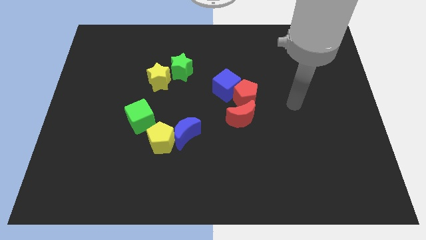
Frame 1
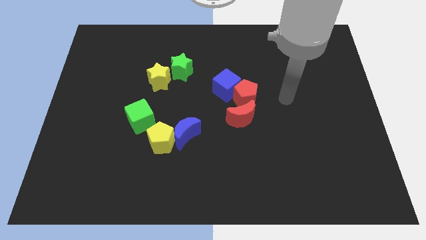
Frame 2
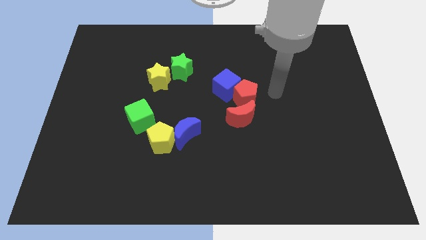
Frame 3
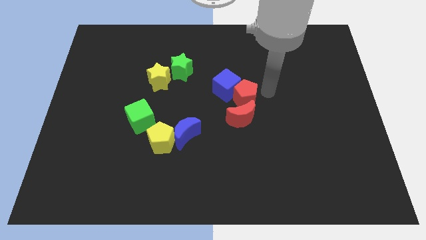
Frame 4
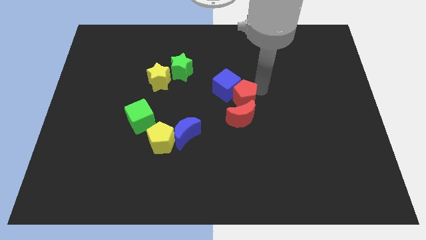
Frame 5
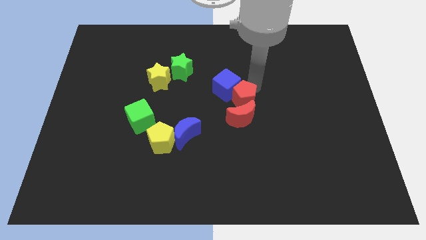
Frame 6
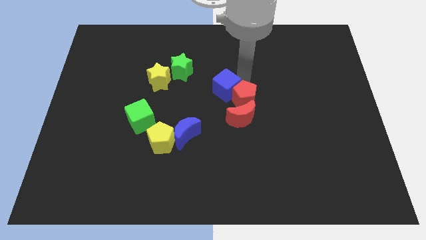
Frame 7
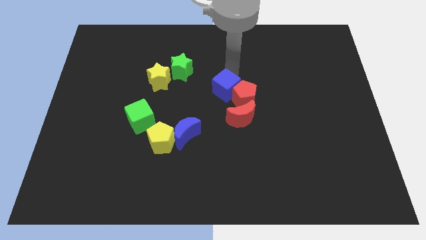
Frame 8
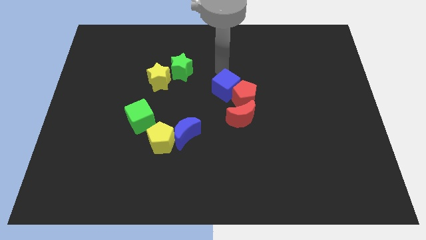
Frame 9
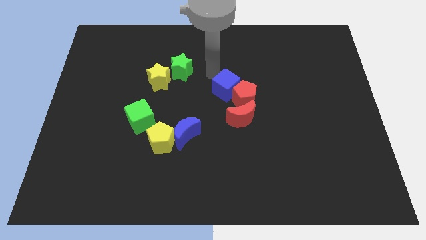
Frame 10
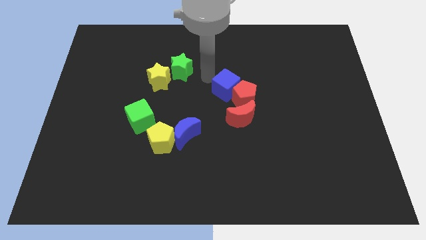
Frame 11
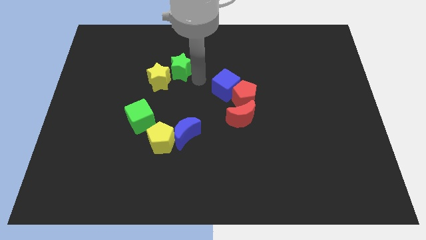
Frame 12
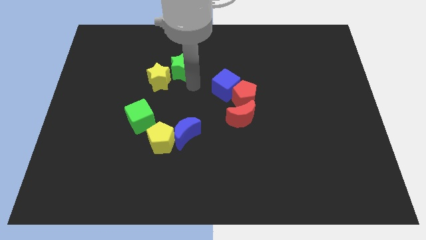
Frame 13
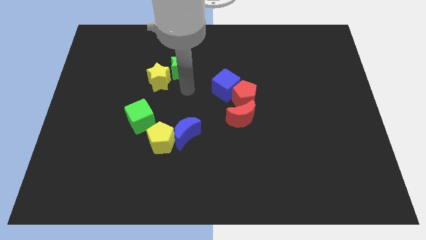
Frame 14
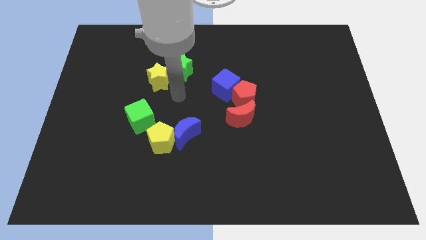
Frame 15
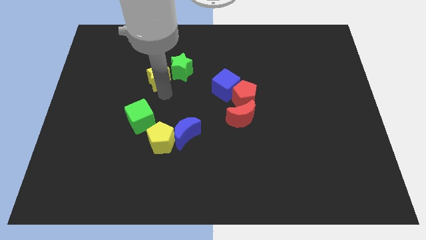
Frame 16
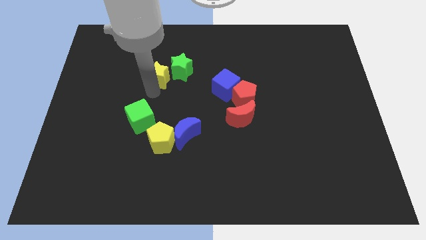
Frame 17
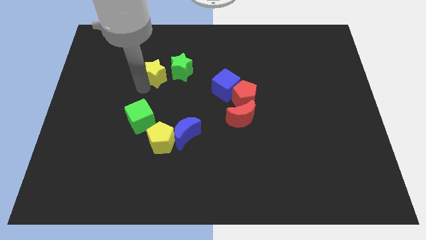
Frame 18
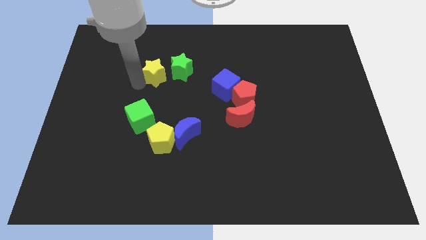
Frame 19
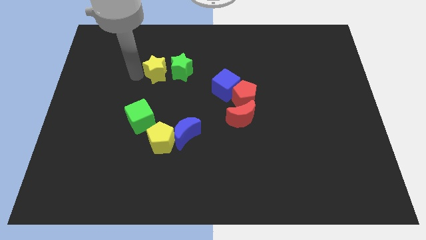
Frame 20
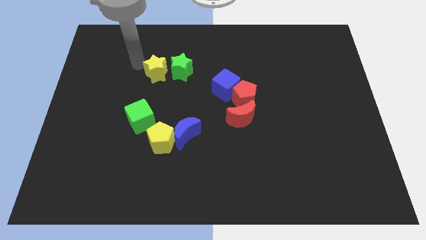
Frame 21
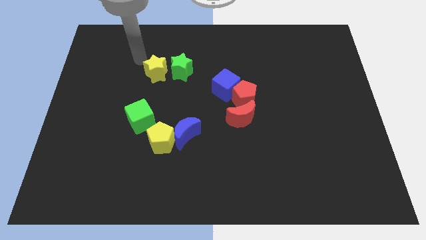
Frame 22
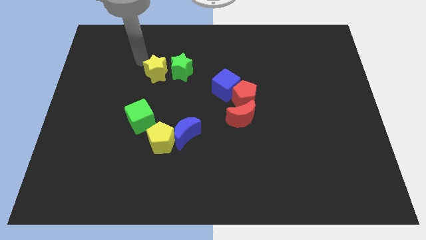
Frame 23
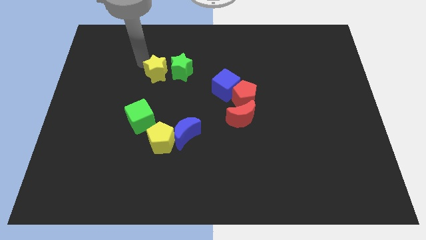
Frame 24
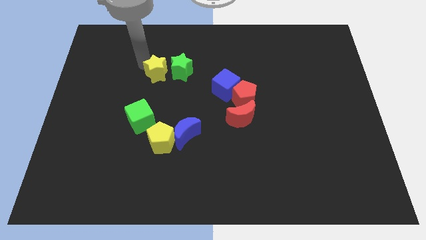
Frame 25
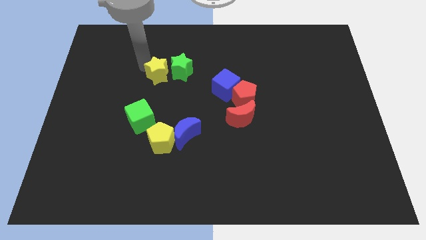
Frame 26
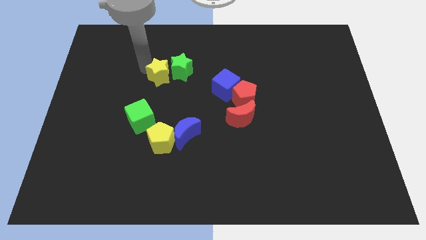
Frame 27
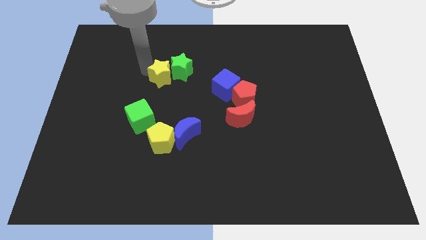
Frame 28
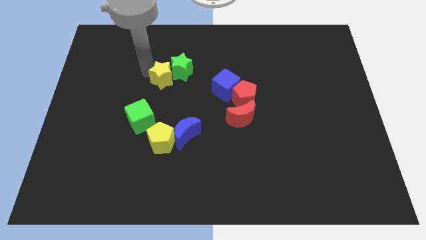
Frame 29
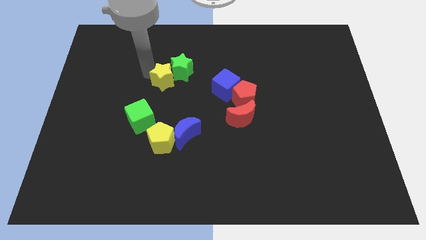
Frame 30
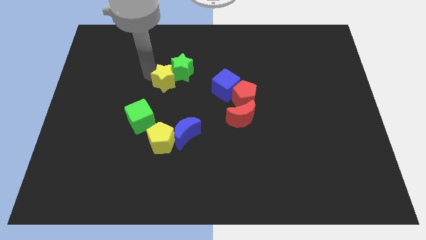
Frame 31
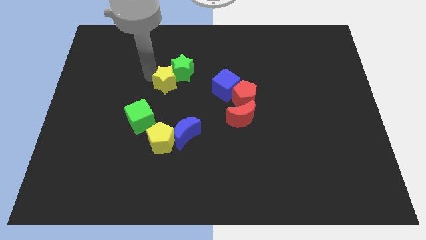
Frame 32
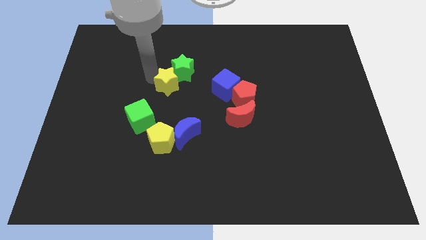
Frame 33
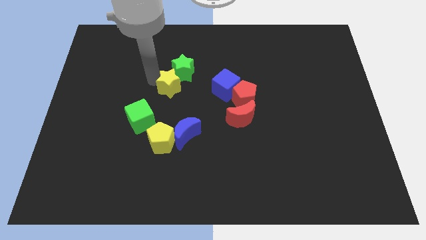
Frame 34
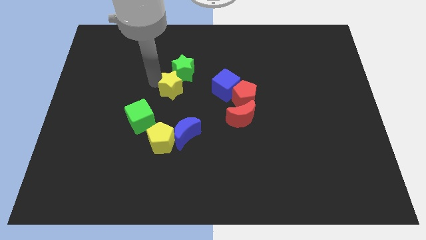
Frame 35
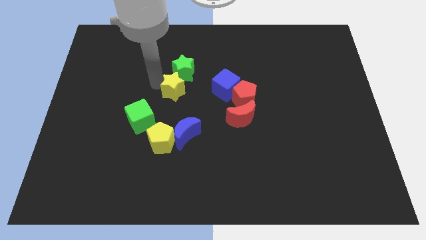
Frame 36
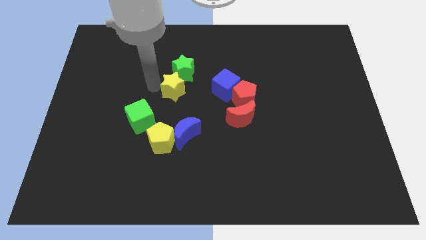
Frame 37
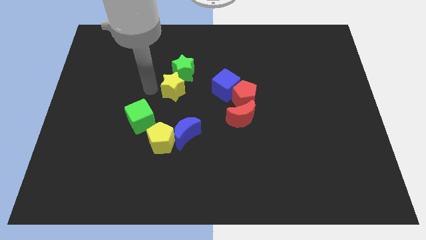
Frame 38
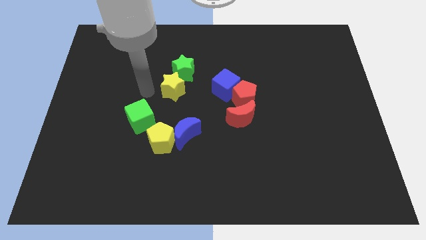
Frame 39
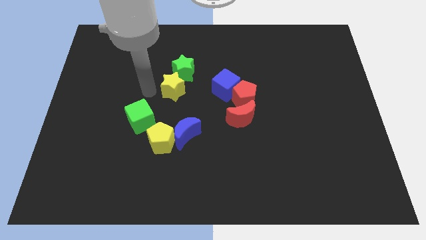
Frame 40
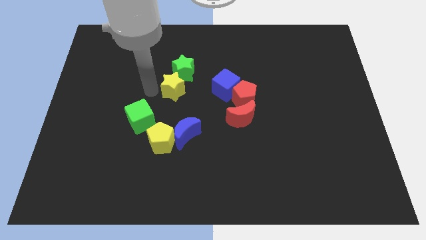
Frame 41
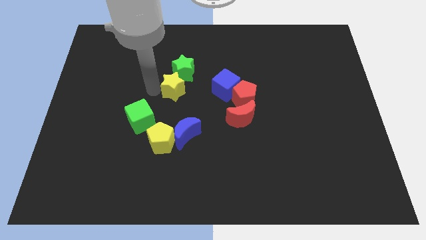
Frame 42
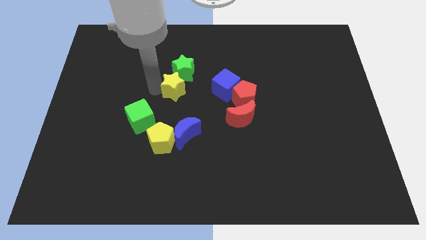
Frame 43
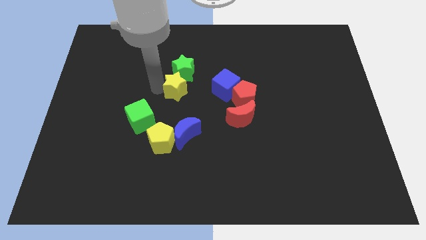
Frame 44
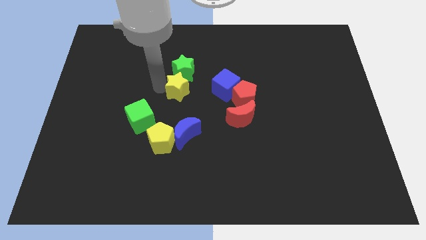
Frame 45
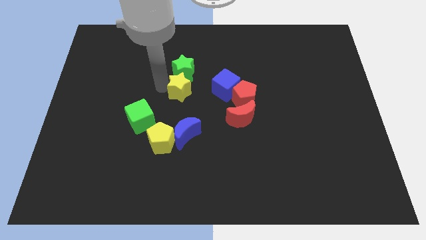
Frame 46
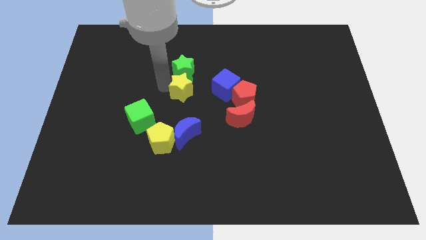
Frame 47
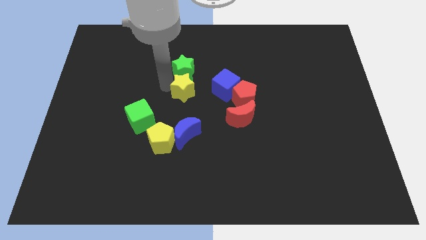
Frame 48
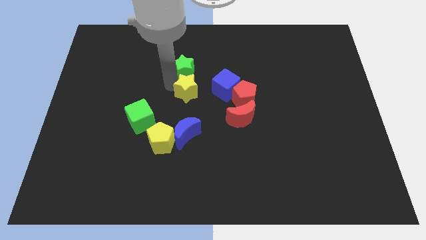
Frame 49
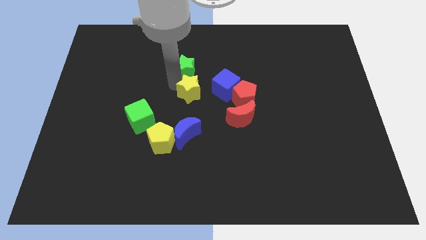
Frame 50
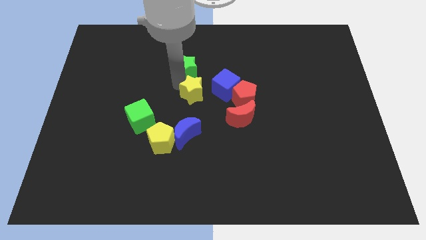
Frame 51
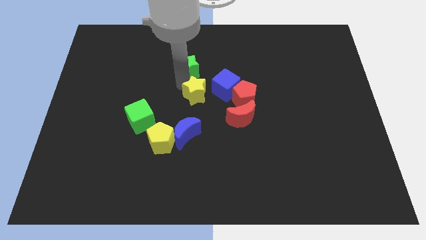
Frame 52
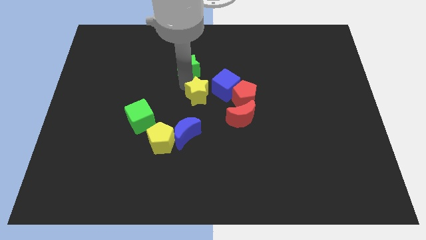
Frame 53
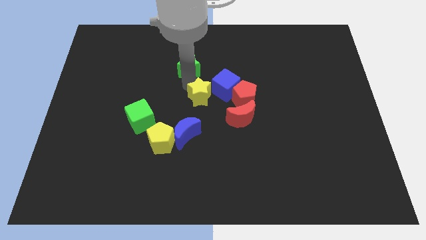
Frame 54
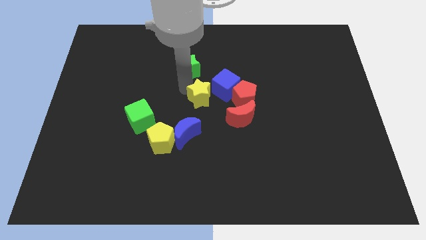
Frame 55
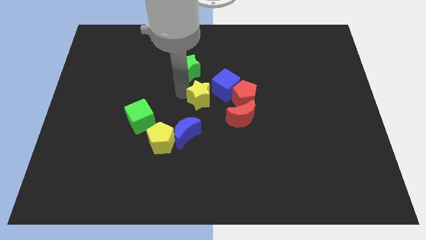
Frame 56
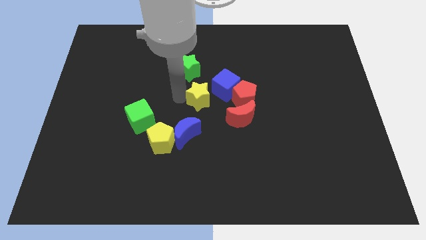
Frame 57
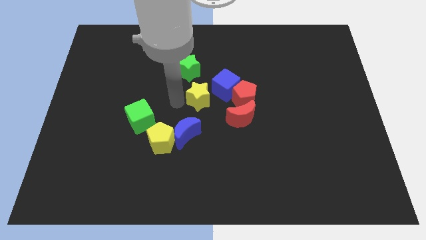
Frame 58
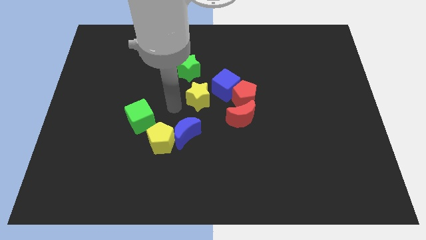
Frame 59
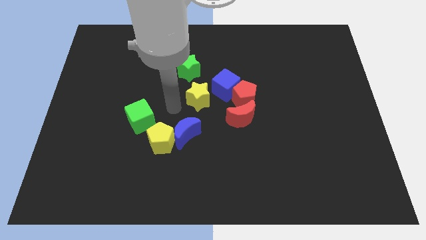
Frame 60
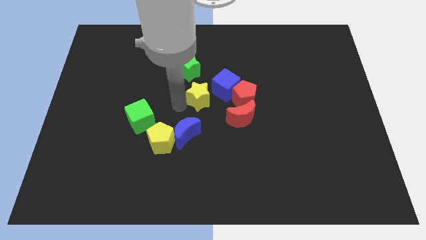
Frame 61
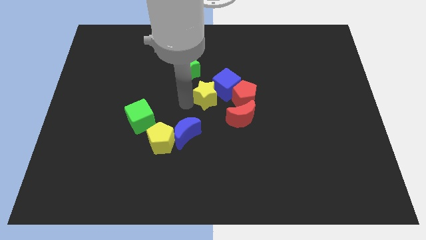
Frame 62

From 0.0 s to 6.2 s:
put the yellow star close to the blue cube

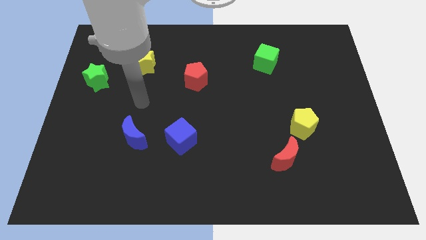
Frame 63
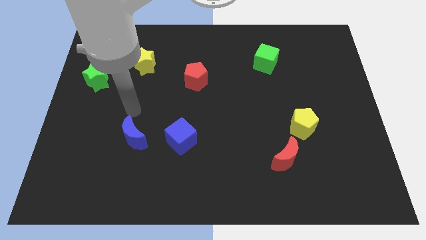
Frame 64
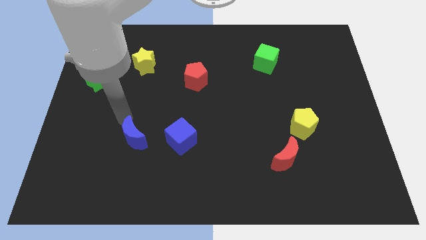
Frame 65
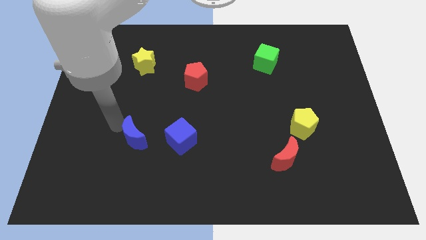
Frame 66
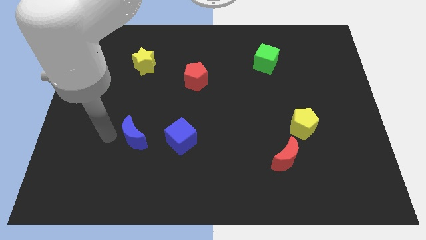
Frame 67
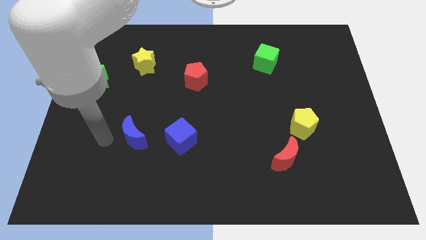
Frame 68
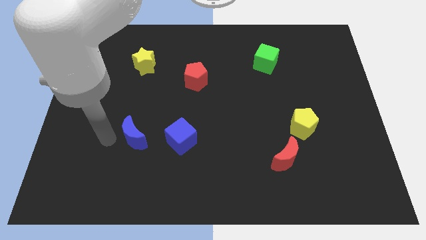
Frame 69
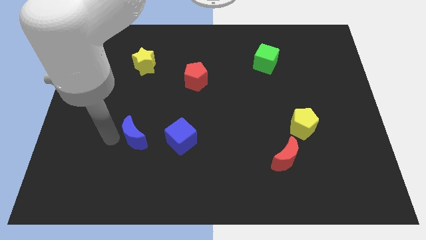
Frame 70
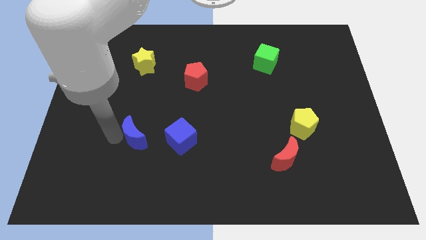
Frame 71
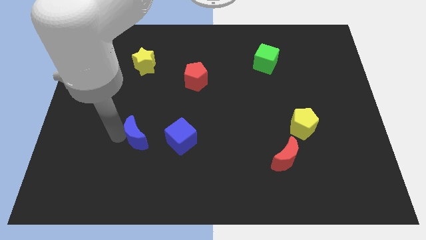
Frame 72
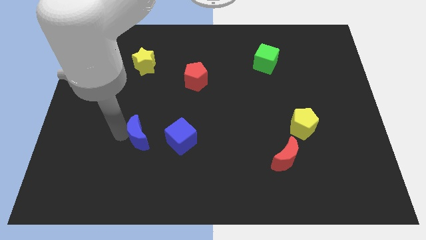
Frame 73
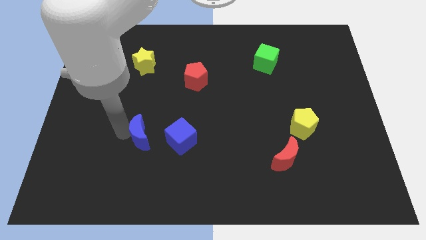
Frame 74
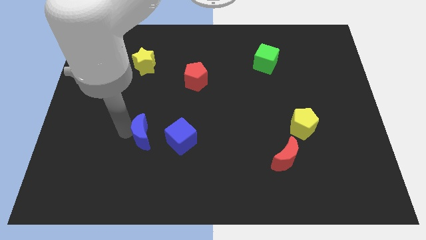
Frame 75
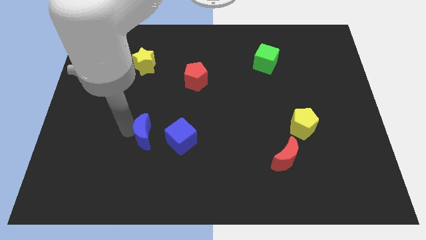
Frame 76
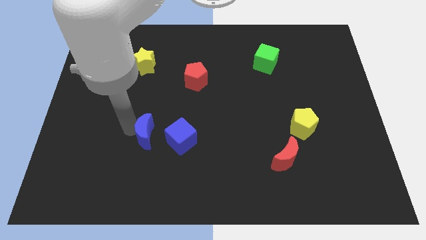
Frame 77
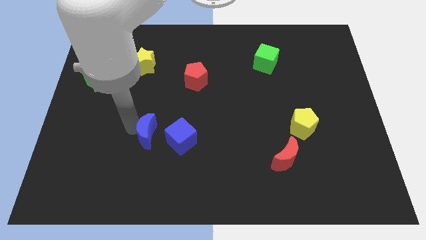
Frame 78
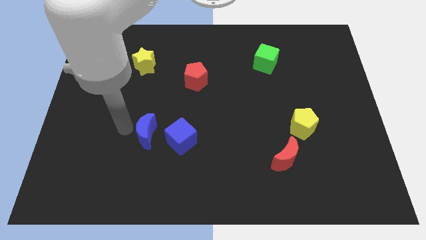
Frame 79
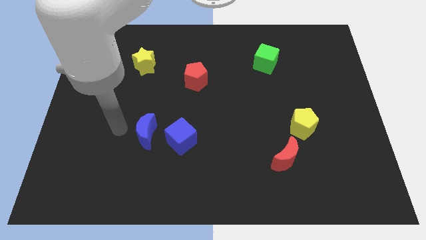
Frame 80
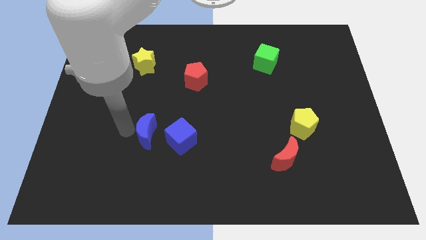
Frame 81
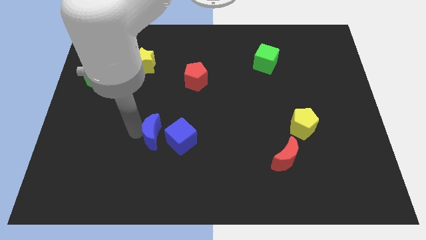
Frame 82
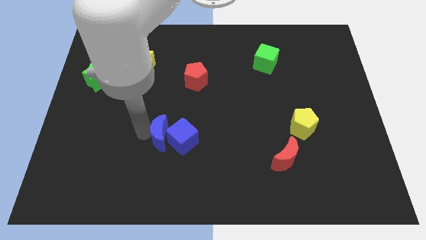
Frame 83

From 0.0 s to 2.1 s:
push the blue moon close to the blue cube
